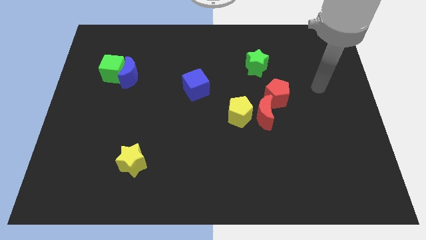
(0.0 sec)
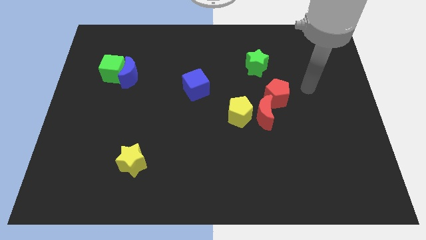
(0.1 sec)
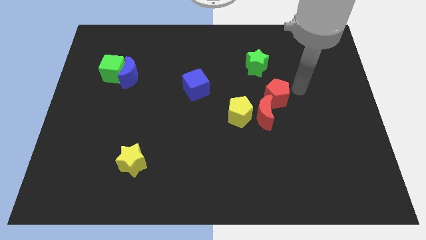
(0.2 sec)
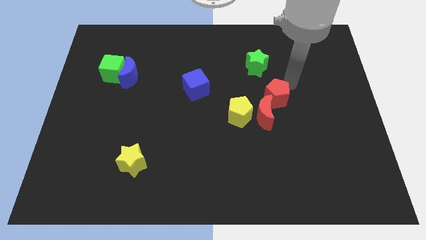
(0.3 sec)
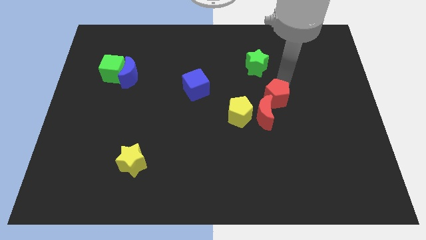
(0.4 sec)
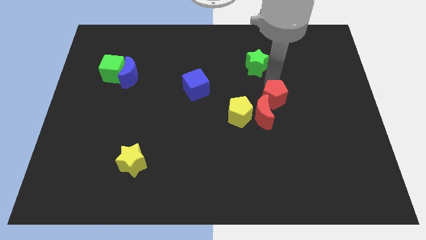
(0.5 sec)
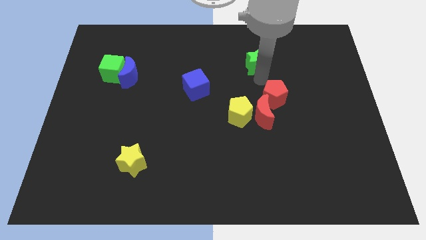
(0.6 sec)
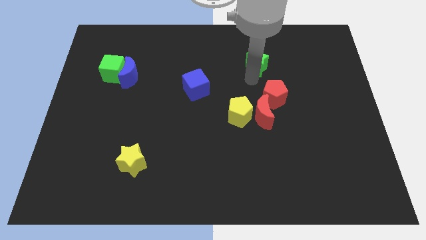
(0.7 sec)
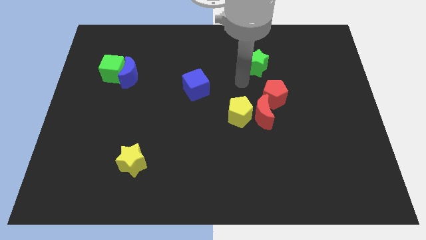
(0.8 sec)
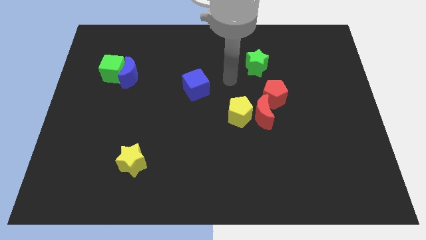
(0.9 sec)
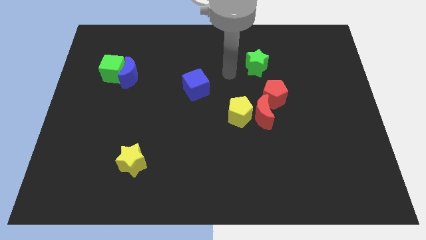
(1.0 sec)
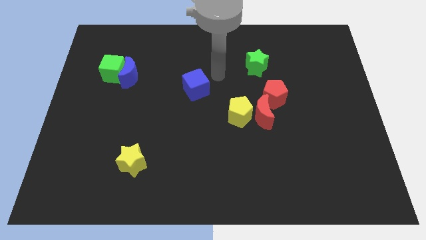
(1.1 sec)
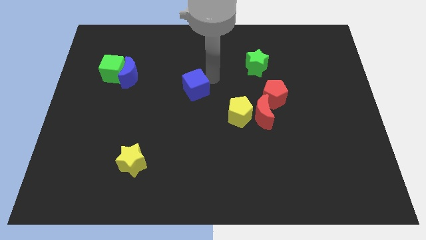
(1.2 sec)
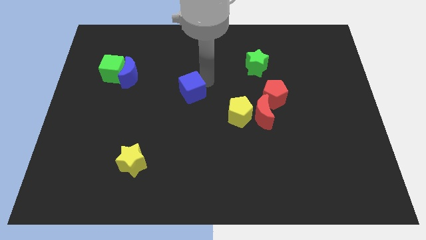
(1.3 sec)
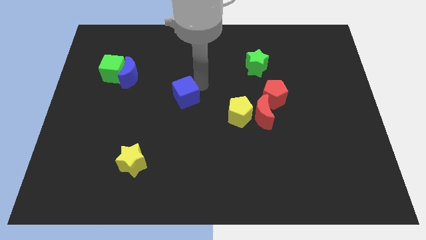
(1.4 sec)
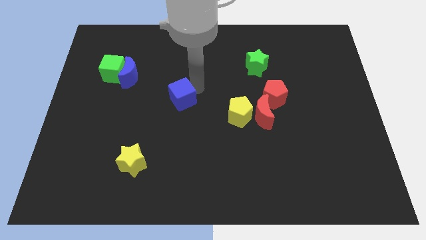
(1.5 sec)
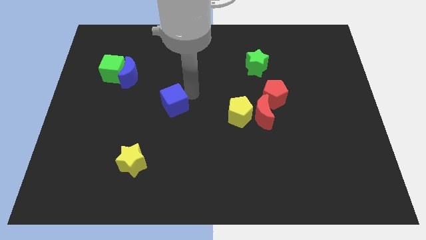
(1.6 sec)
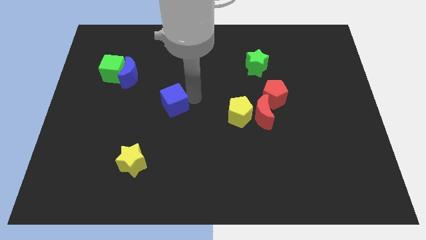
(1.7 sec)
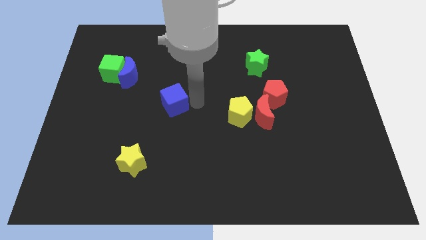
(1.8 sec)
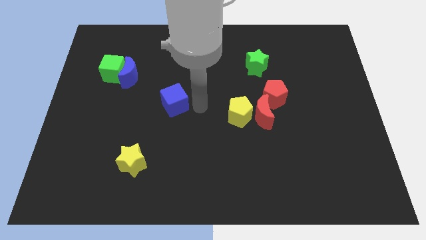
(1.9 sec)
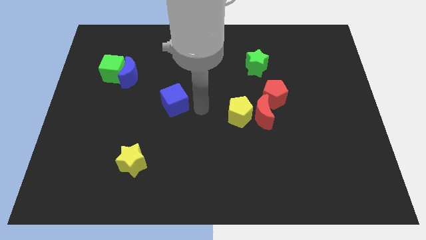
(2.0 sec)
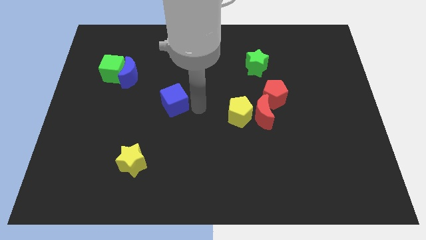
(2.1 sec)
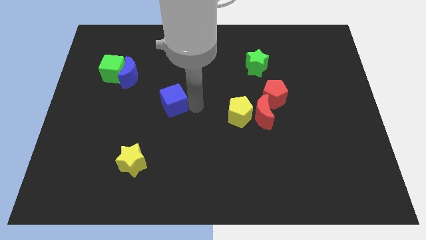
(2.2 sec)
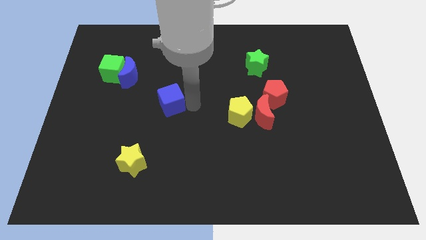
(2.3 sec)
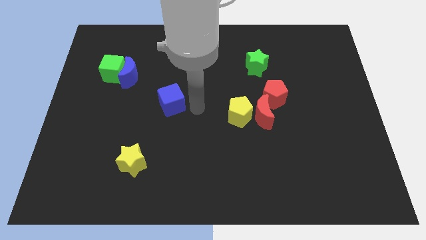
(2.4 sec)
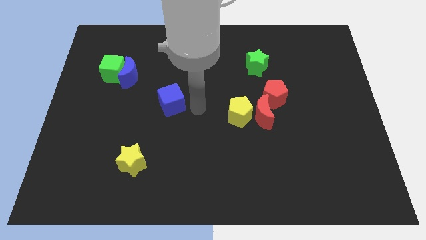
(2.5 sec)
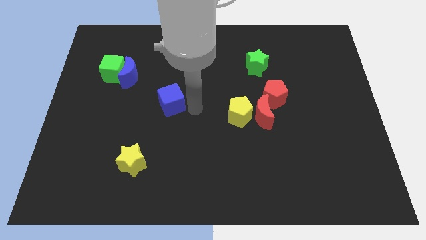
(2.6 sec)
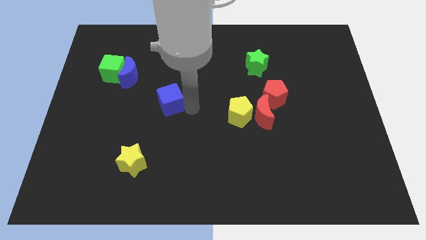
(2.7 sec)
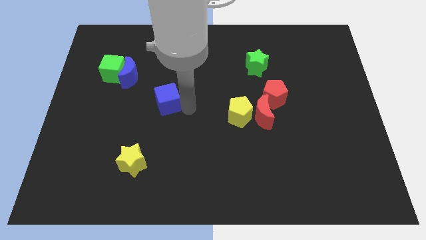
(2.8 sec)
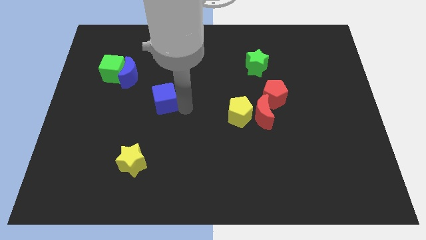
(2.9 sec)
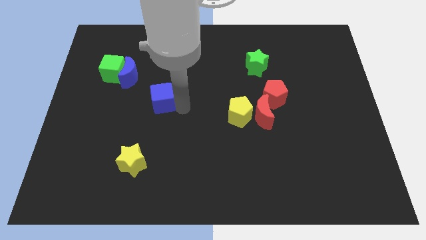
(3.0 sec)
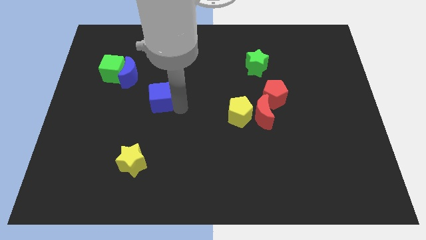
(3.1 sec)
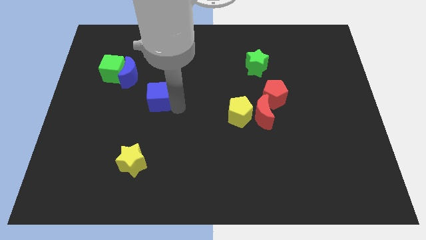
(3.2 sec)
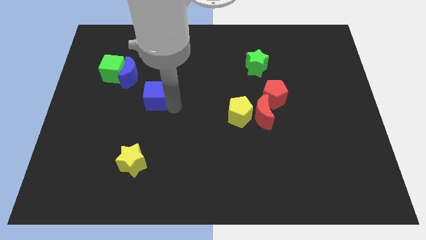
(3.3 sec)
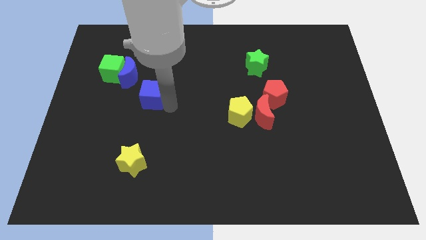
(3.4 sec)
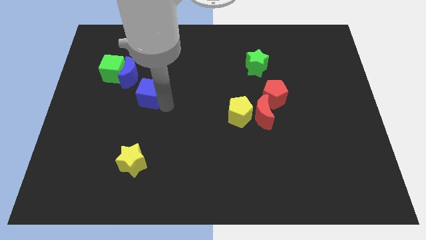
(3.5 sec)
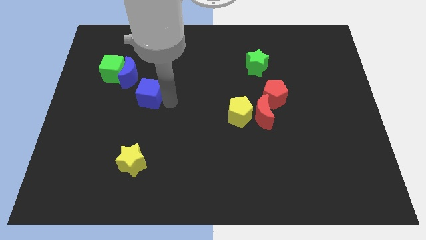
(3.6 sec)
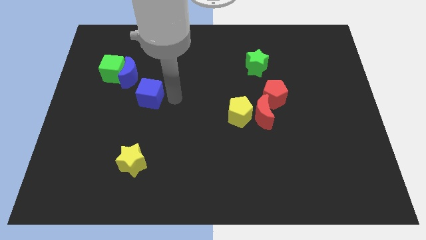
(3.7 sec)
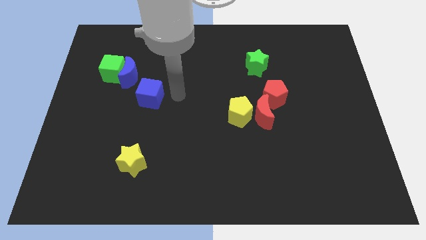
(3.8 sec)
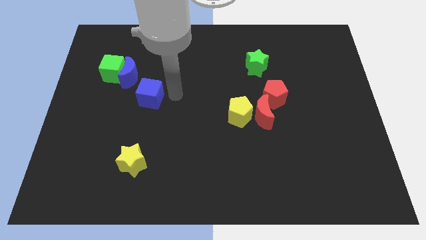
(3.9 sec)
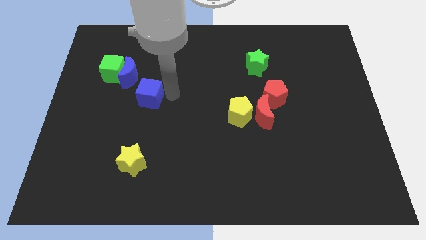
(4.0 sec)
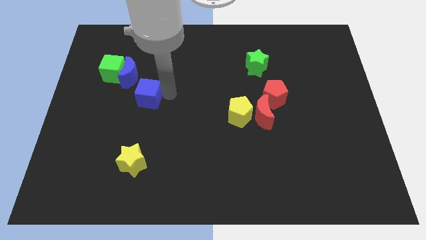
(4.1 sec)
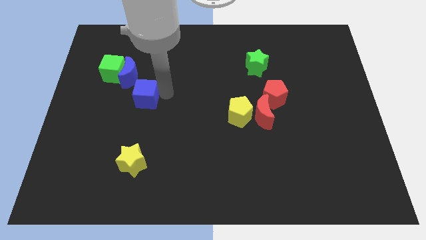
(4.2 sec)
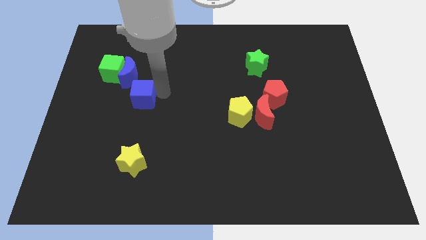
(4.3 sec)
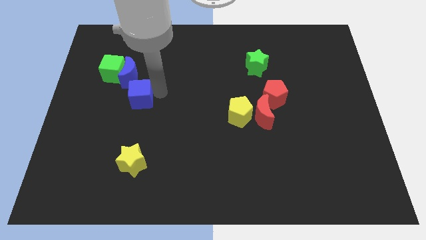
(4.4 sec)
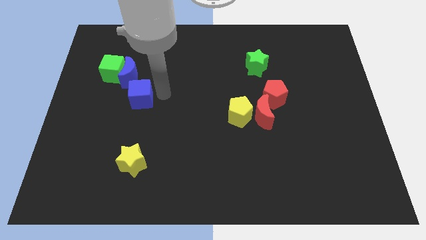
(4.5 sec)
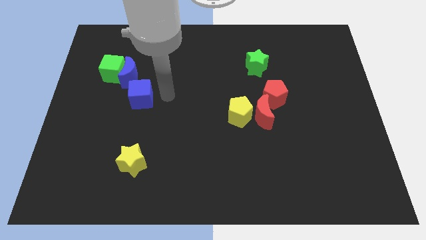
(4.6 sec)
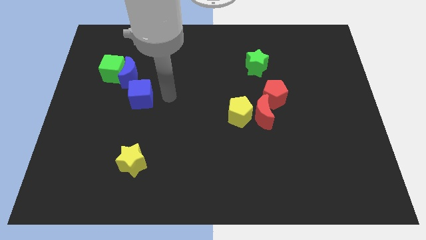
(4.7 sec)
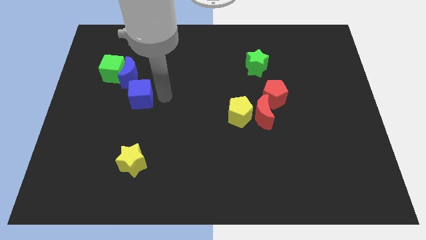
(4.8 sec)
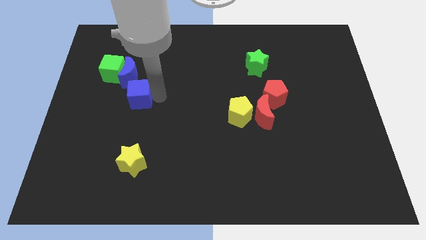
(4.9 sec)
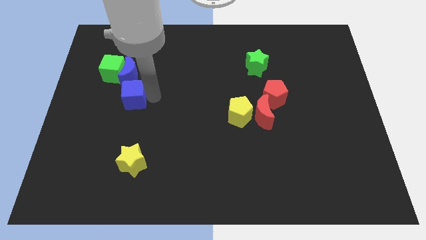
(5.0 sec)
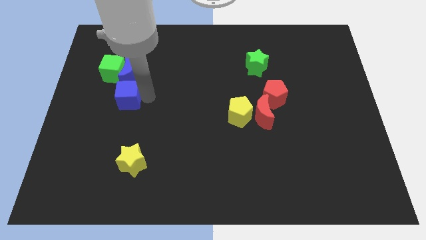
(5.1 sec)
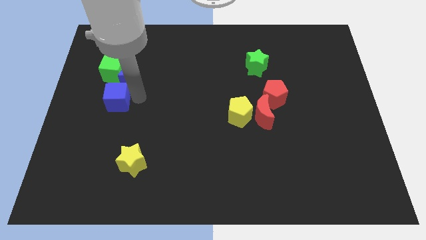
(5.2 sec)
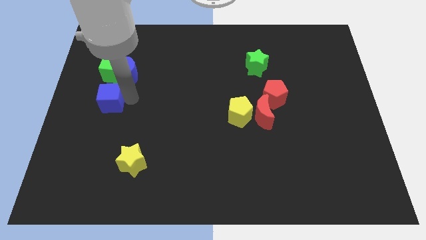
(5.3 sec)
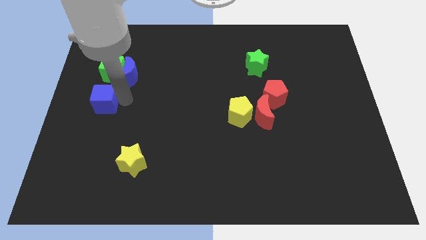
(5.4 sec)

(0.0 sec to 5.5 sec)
slide the blue cube to the left side

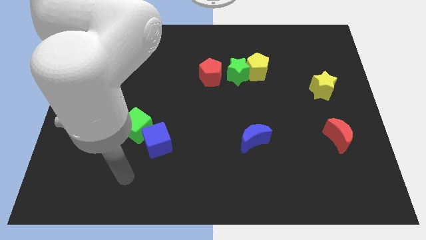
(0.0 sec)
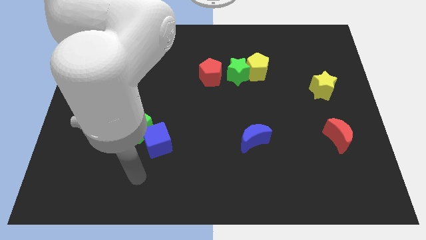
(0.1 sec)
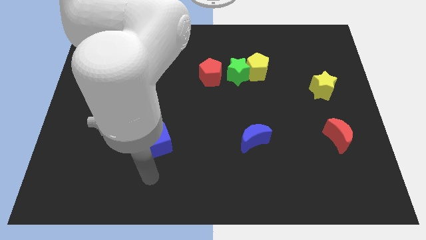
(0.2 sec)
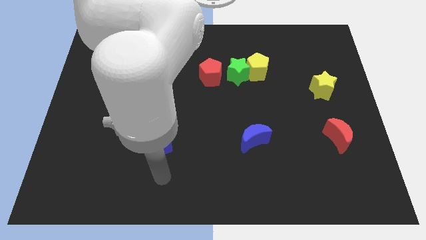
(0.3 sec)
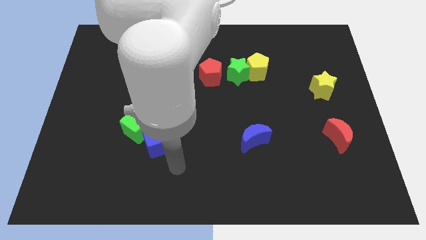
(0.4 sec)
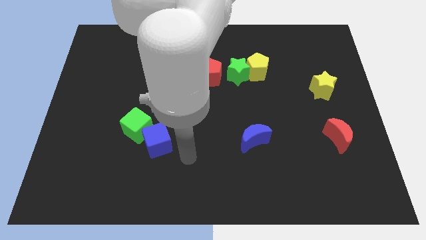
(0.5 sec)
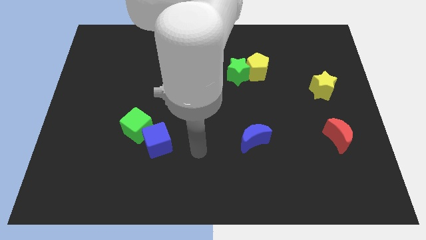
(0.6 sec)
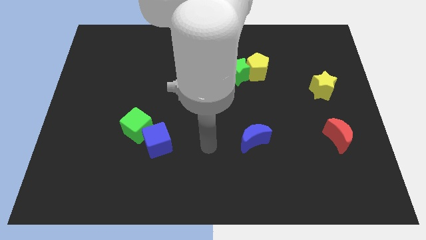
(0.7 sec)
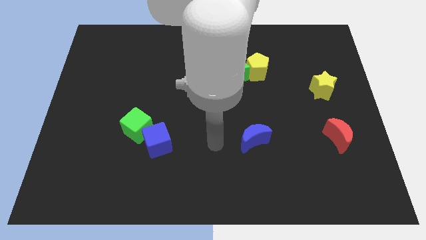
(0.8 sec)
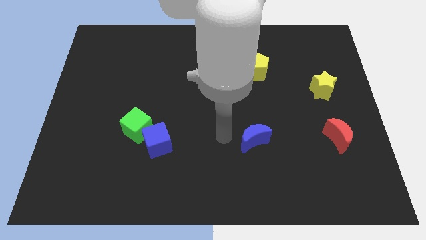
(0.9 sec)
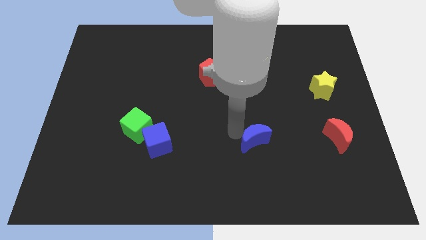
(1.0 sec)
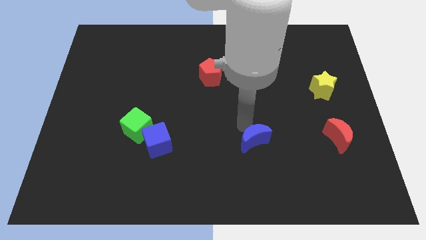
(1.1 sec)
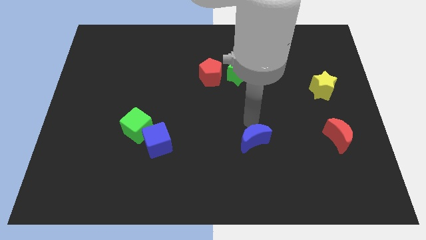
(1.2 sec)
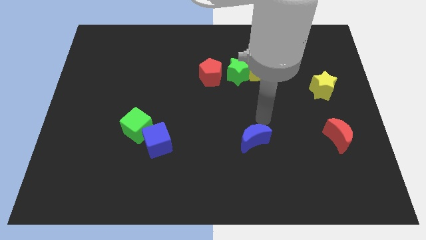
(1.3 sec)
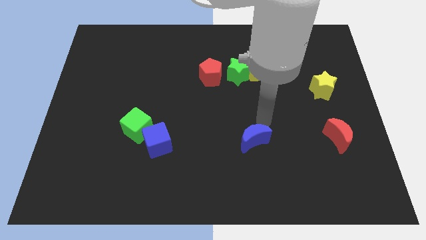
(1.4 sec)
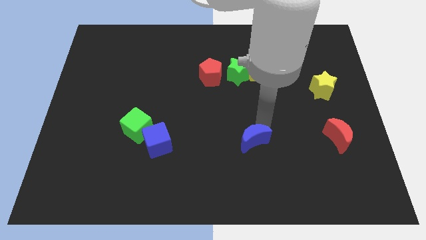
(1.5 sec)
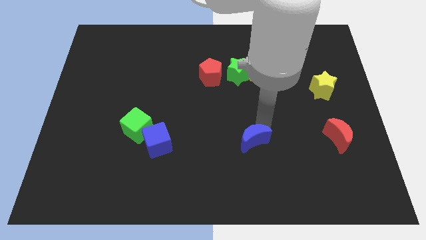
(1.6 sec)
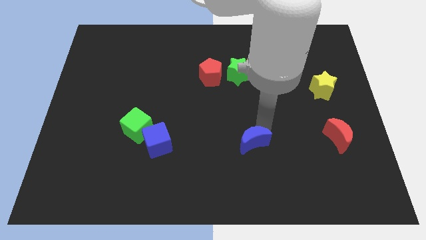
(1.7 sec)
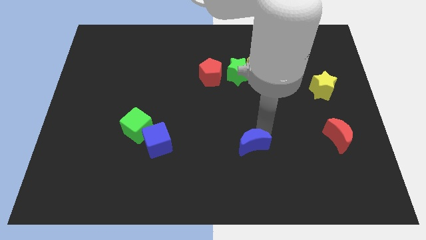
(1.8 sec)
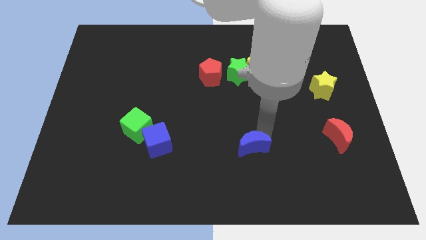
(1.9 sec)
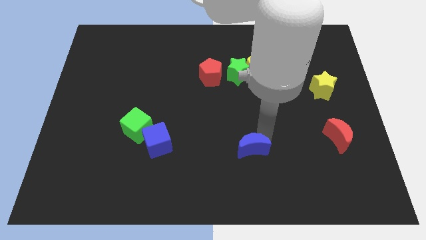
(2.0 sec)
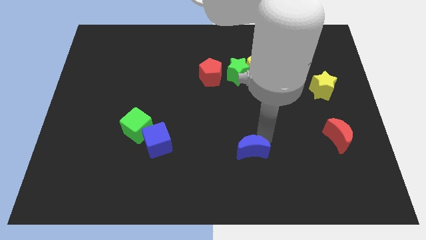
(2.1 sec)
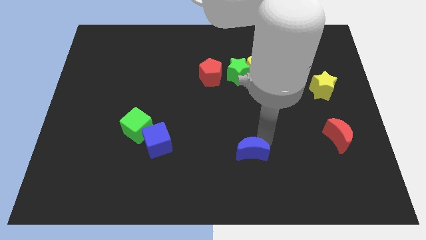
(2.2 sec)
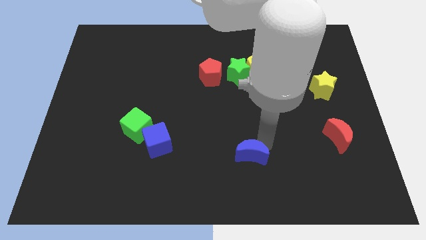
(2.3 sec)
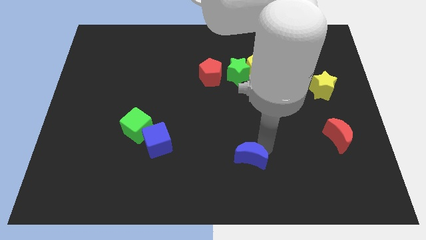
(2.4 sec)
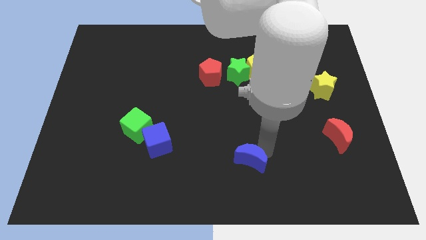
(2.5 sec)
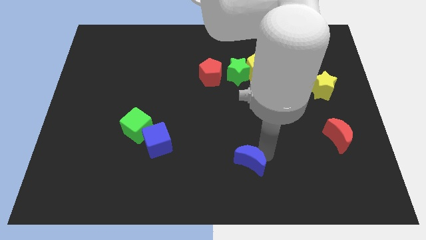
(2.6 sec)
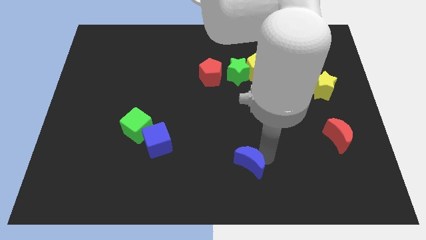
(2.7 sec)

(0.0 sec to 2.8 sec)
push the blue moon to the bottom
